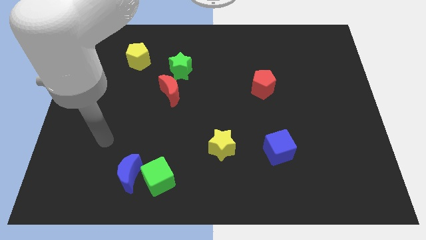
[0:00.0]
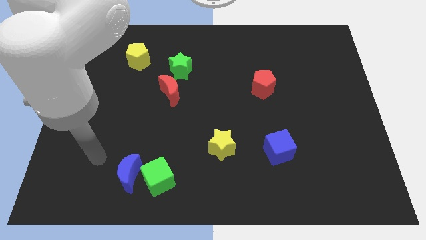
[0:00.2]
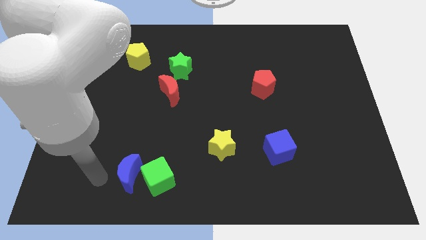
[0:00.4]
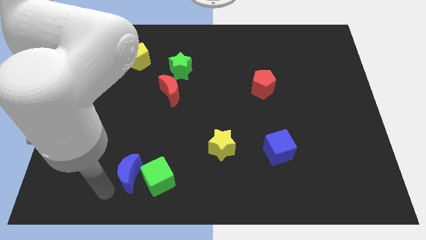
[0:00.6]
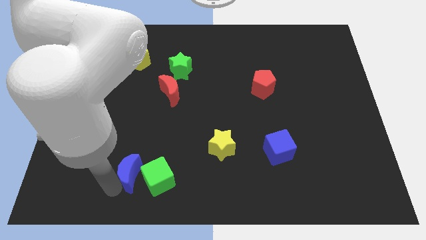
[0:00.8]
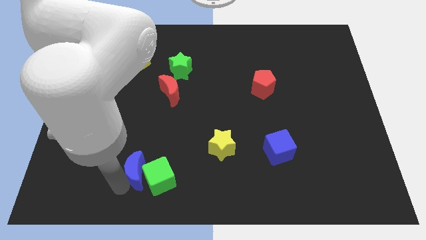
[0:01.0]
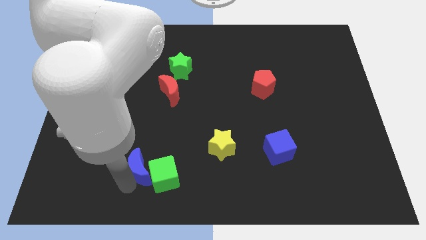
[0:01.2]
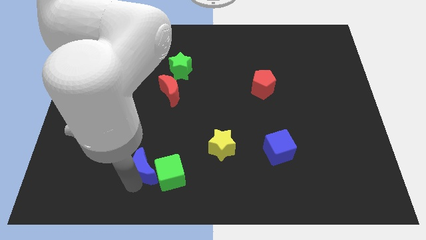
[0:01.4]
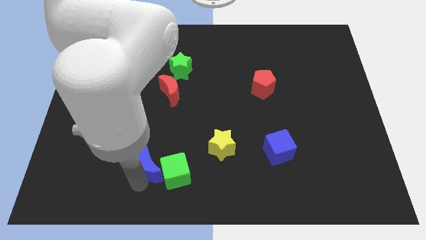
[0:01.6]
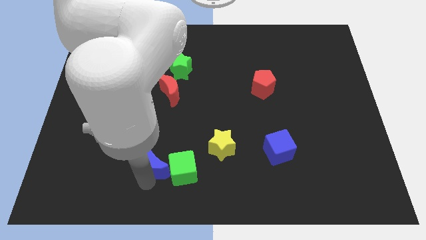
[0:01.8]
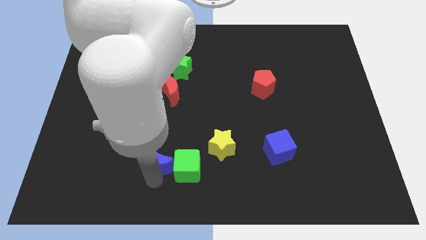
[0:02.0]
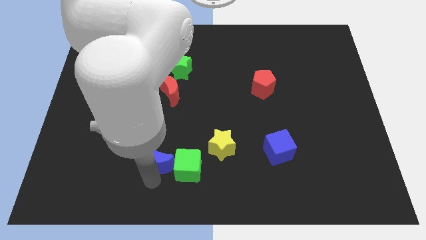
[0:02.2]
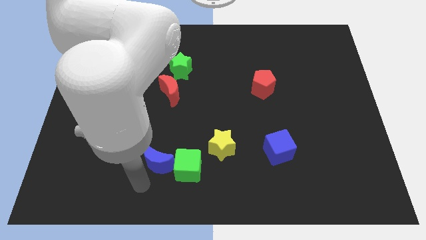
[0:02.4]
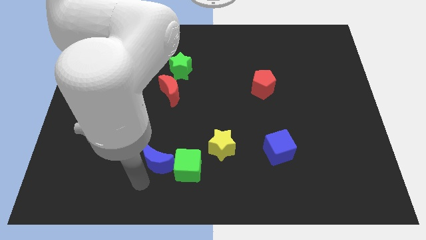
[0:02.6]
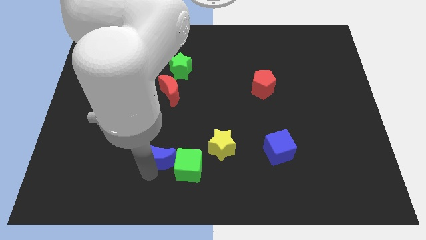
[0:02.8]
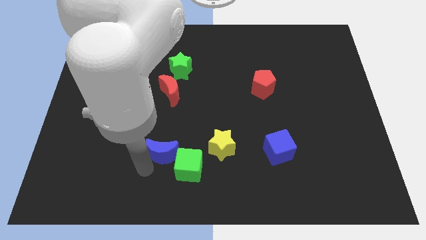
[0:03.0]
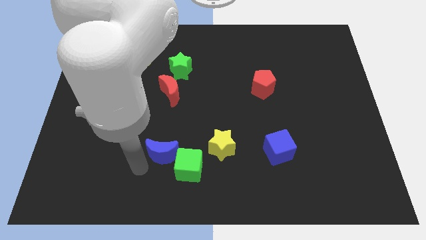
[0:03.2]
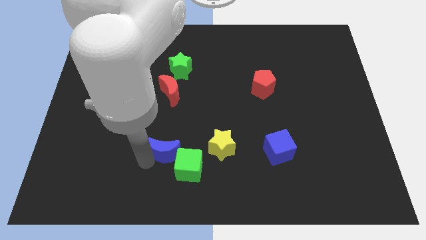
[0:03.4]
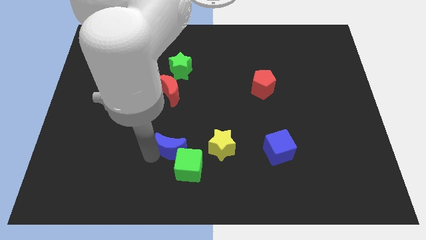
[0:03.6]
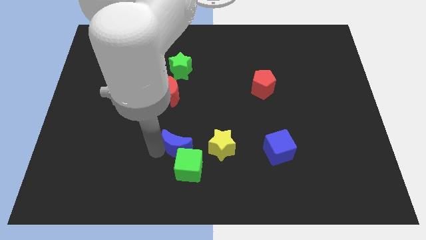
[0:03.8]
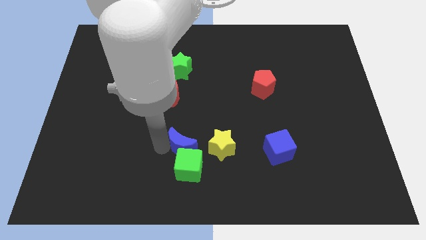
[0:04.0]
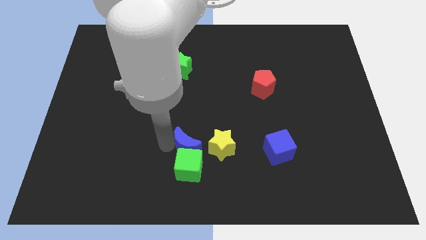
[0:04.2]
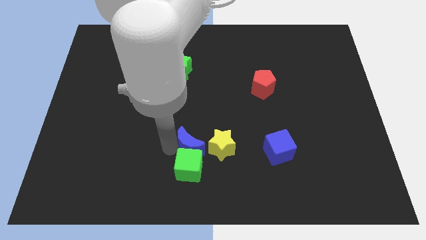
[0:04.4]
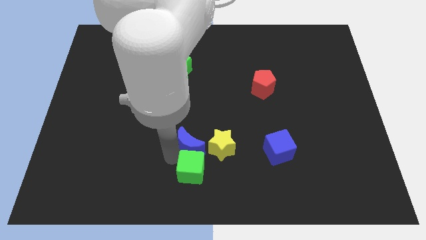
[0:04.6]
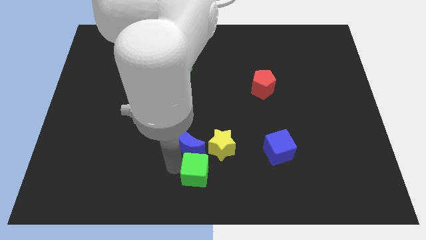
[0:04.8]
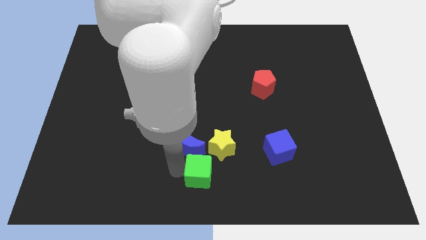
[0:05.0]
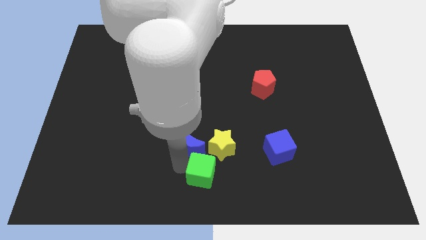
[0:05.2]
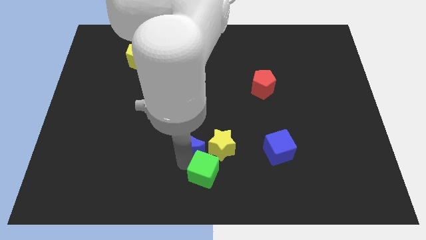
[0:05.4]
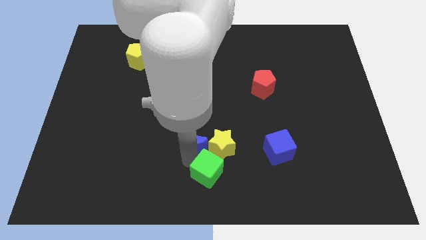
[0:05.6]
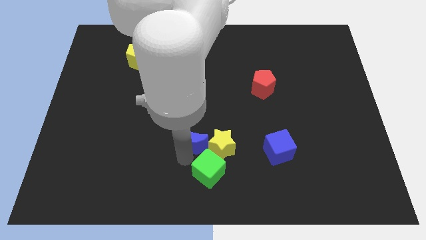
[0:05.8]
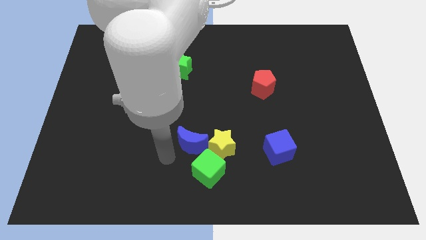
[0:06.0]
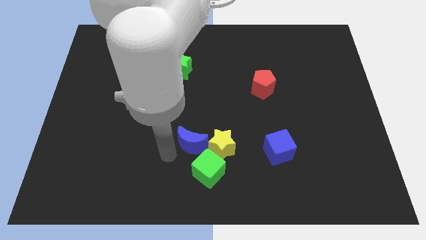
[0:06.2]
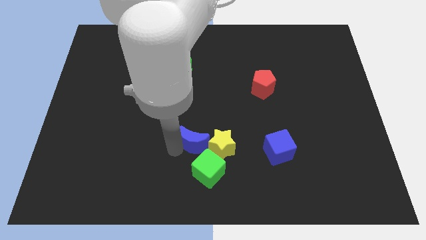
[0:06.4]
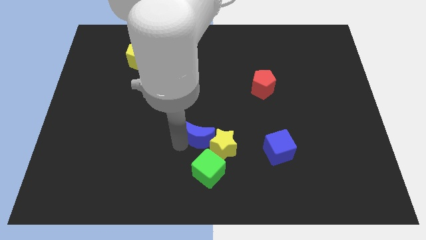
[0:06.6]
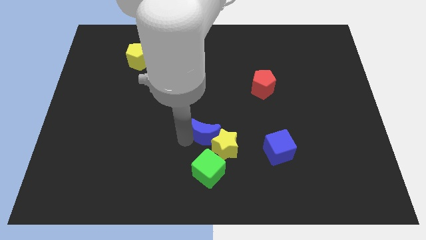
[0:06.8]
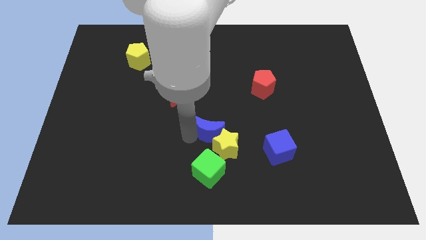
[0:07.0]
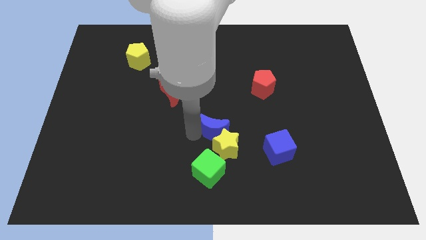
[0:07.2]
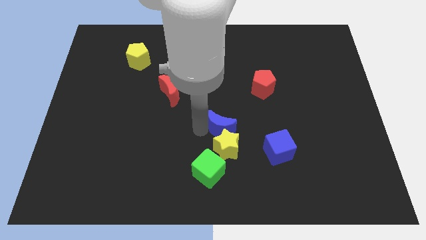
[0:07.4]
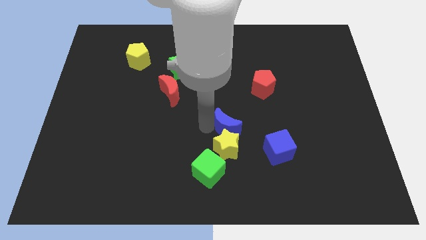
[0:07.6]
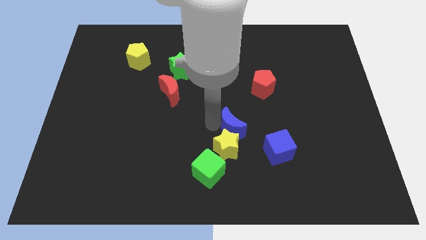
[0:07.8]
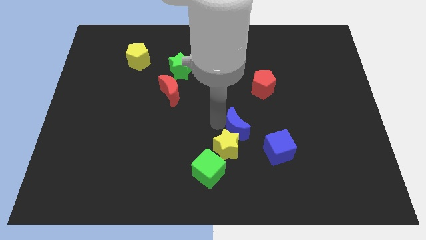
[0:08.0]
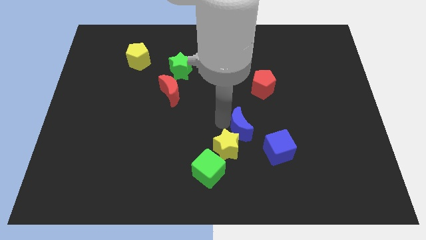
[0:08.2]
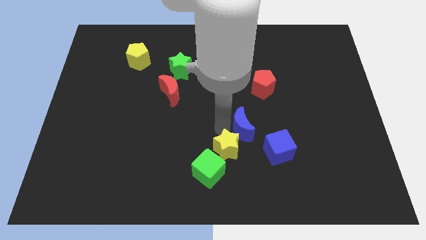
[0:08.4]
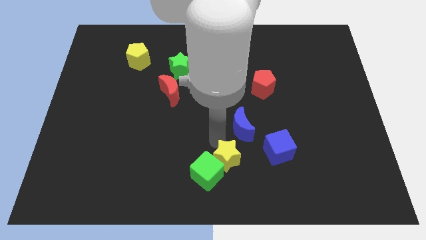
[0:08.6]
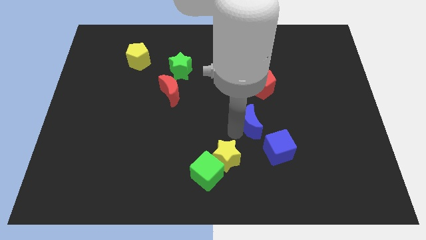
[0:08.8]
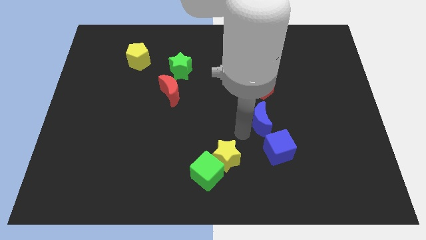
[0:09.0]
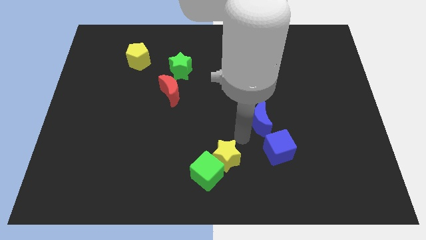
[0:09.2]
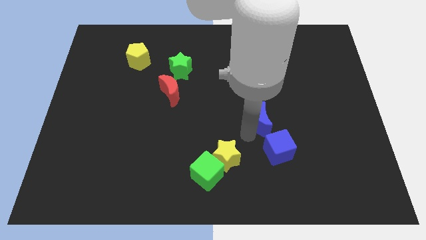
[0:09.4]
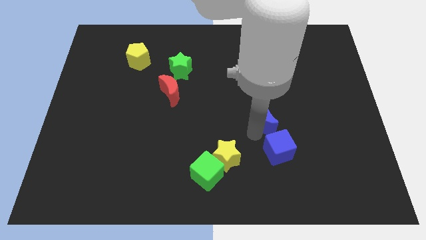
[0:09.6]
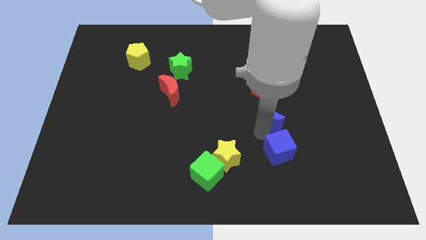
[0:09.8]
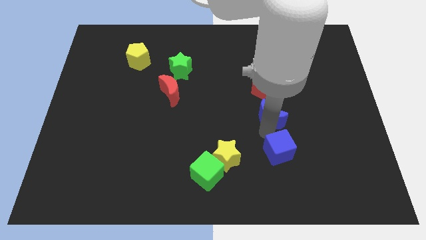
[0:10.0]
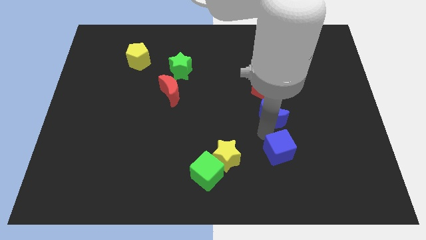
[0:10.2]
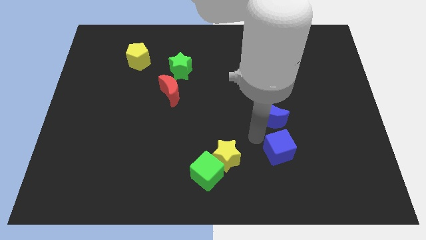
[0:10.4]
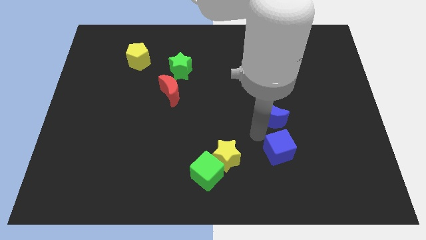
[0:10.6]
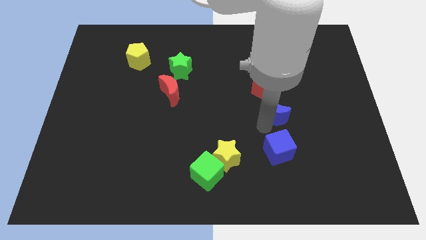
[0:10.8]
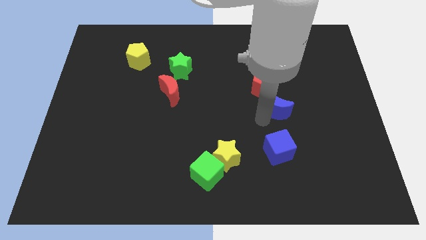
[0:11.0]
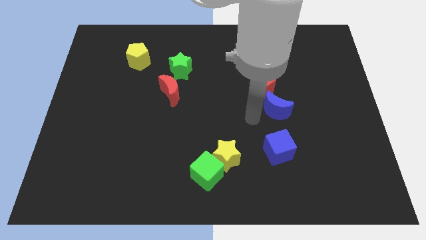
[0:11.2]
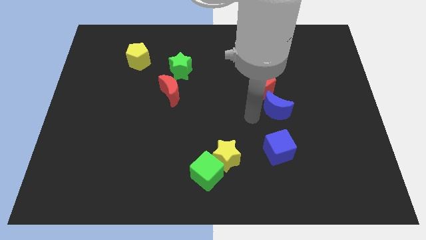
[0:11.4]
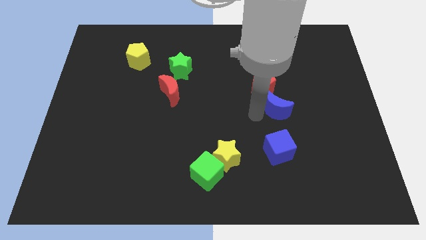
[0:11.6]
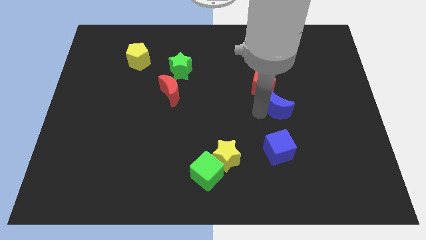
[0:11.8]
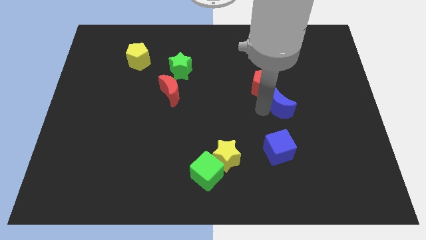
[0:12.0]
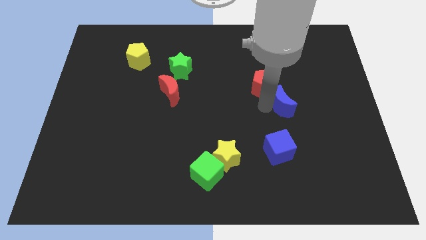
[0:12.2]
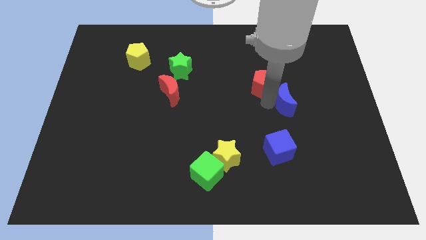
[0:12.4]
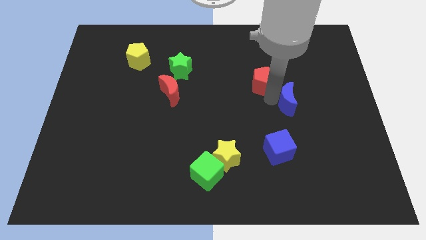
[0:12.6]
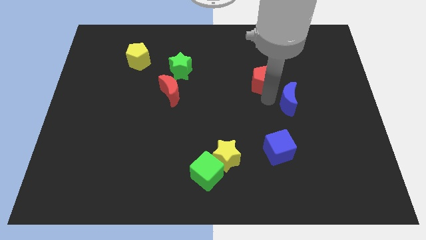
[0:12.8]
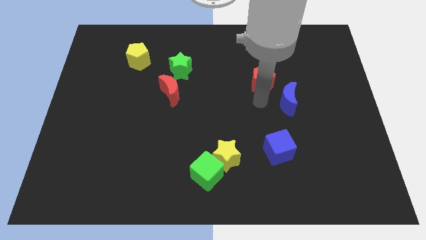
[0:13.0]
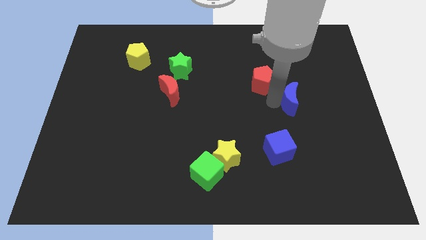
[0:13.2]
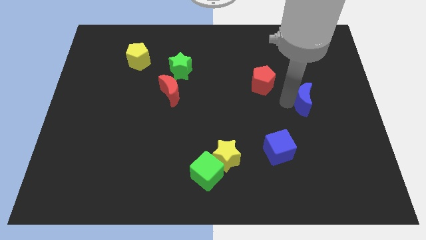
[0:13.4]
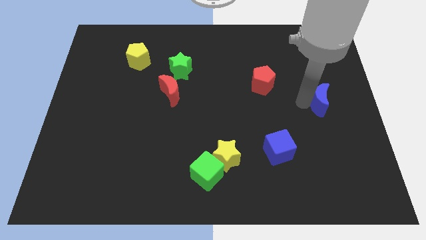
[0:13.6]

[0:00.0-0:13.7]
move the blue moon to the right side

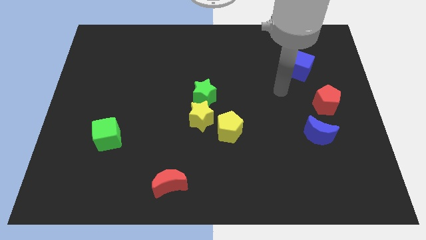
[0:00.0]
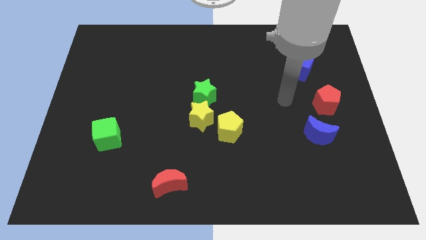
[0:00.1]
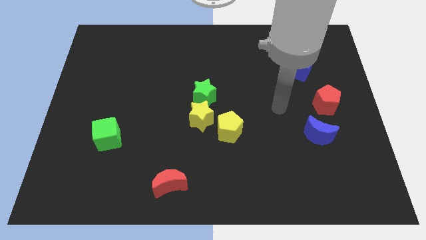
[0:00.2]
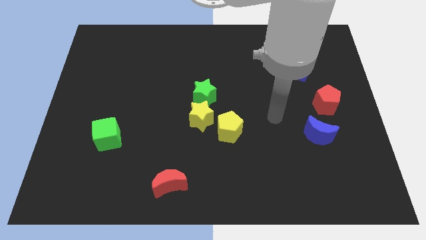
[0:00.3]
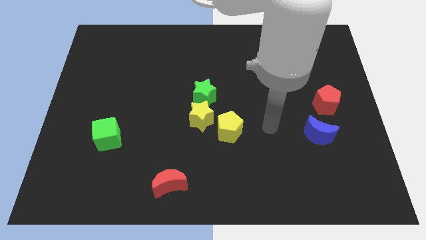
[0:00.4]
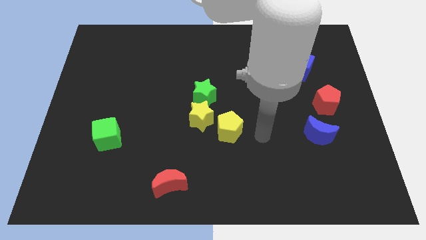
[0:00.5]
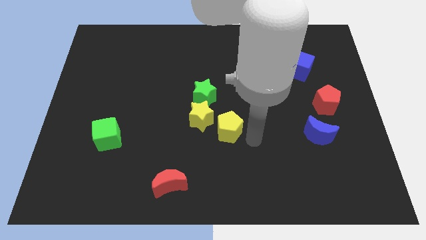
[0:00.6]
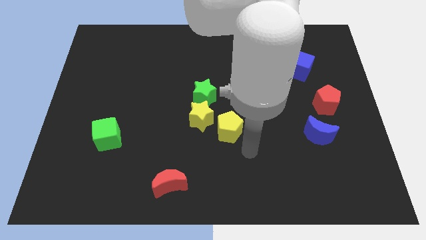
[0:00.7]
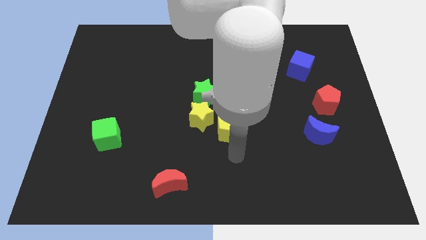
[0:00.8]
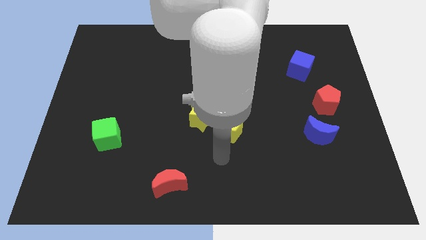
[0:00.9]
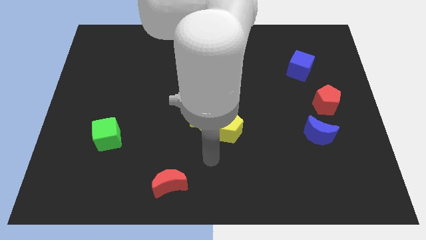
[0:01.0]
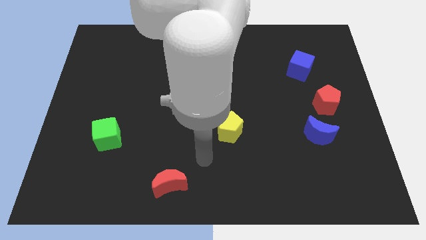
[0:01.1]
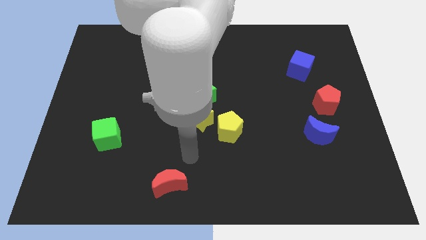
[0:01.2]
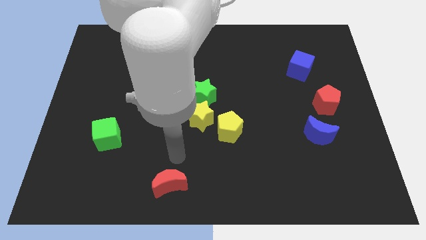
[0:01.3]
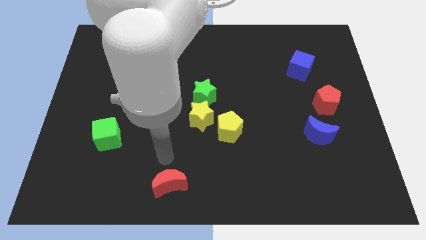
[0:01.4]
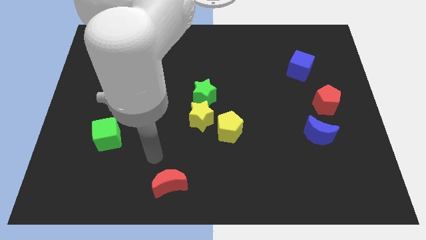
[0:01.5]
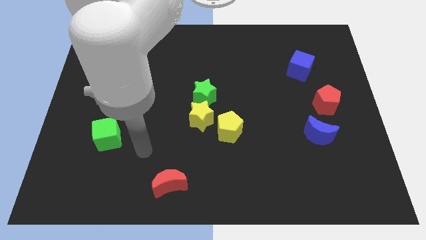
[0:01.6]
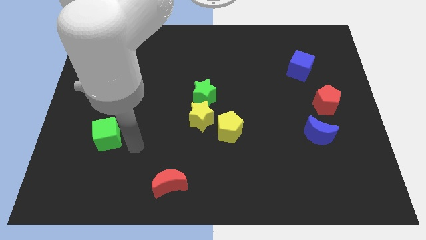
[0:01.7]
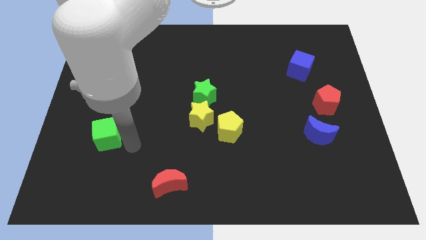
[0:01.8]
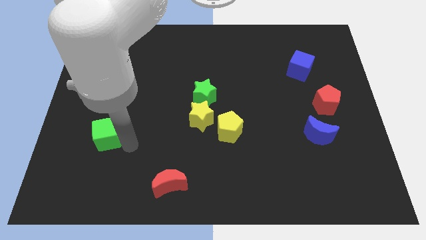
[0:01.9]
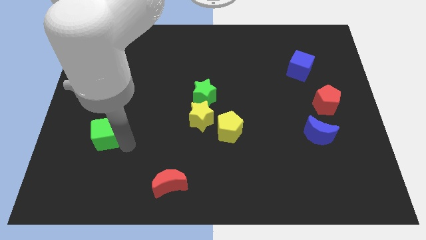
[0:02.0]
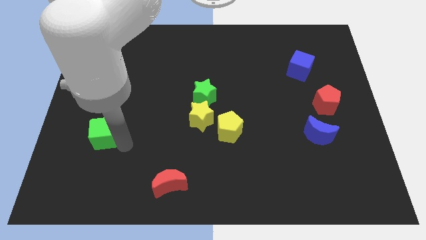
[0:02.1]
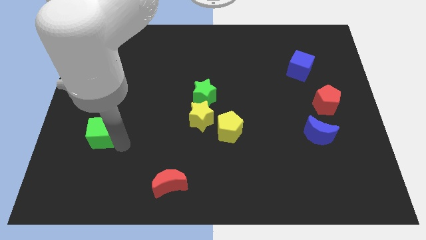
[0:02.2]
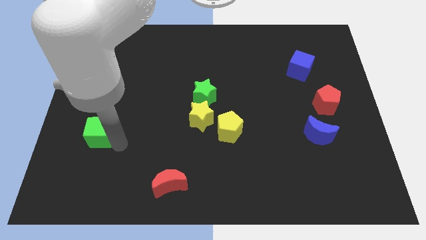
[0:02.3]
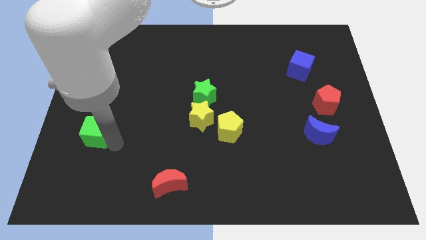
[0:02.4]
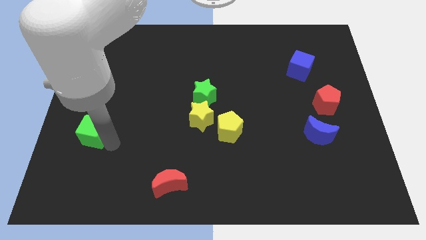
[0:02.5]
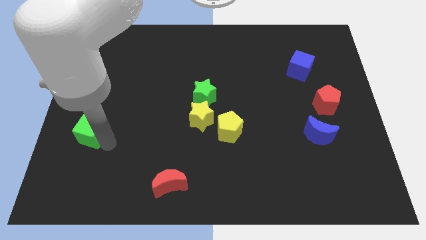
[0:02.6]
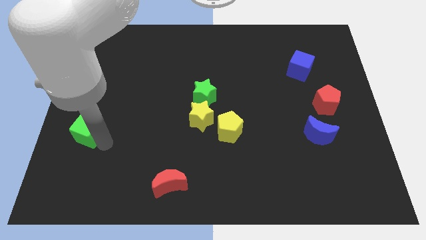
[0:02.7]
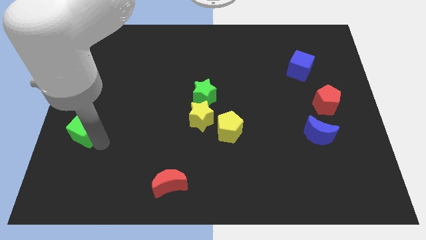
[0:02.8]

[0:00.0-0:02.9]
move the green cube to the left side of the board
